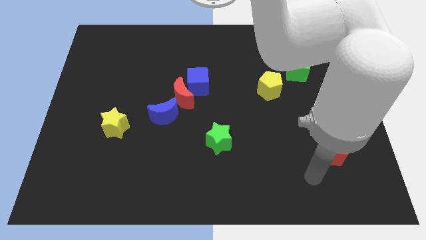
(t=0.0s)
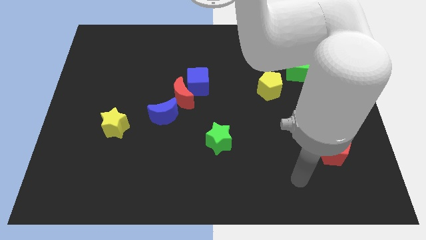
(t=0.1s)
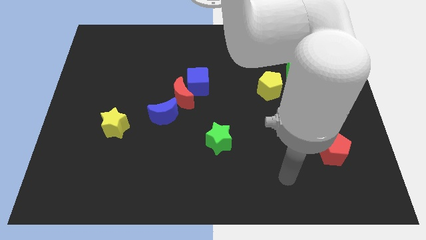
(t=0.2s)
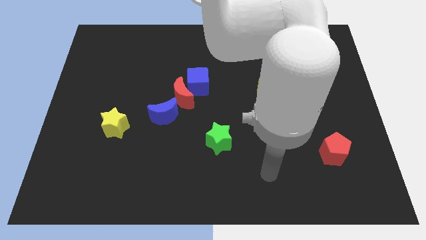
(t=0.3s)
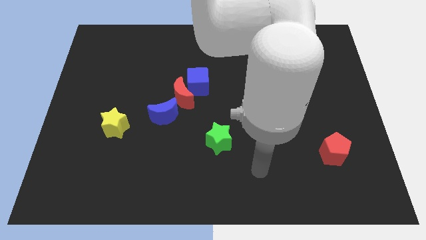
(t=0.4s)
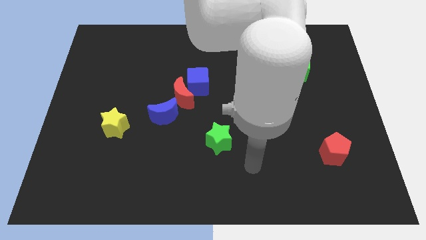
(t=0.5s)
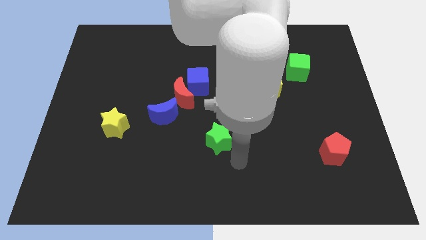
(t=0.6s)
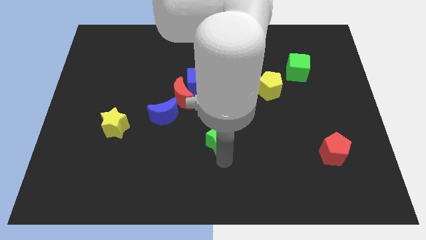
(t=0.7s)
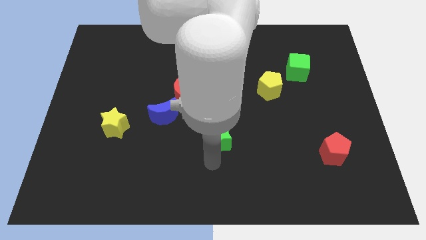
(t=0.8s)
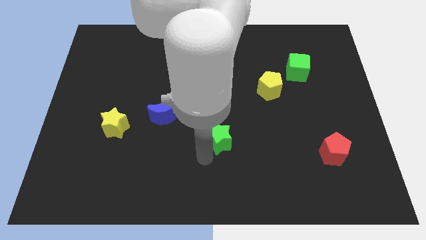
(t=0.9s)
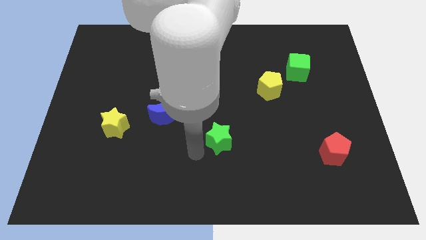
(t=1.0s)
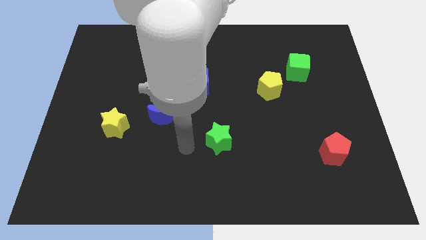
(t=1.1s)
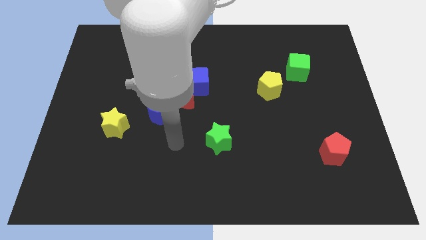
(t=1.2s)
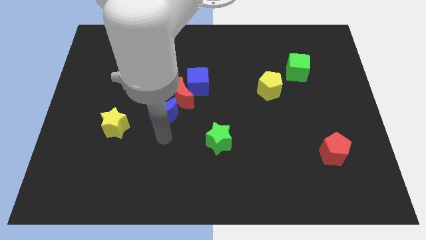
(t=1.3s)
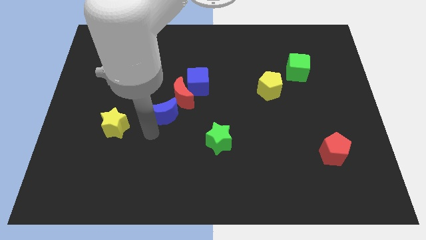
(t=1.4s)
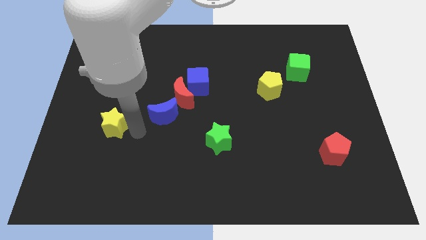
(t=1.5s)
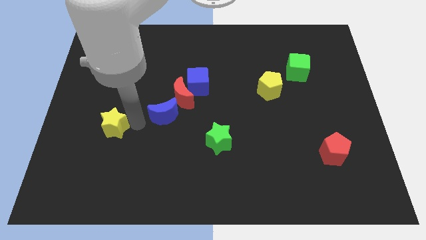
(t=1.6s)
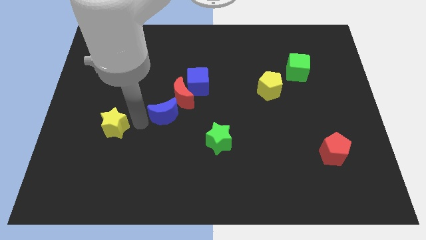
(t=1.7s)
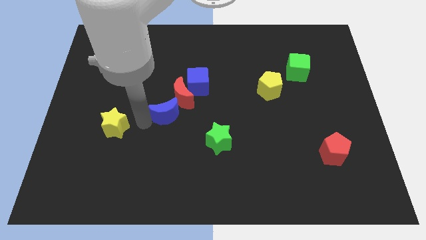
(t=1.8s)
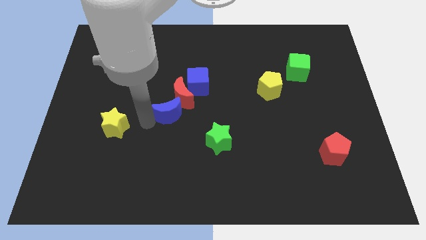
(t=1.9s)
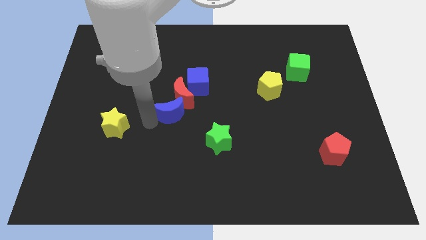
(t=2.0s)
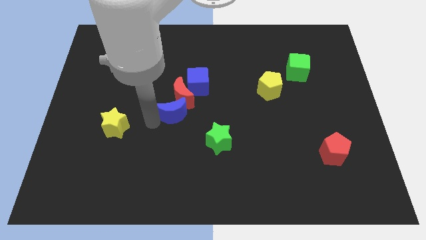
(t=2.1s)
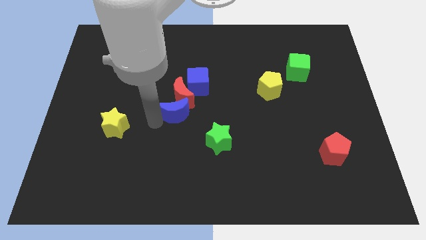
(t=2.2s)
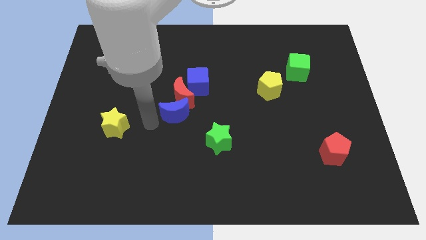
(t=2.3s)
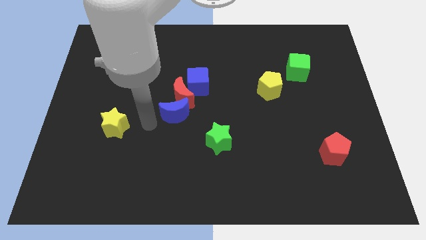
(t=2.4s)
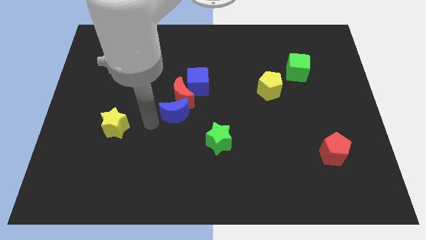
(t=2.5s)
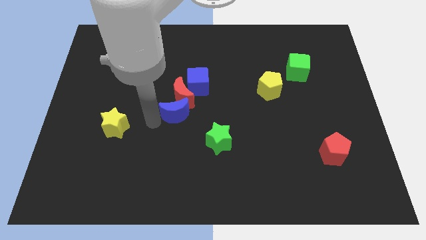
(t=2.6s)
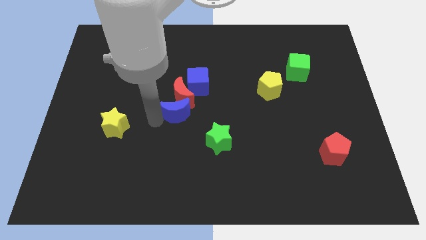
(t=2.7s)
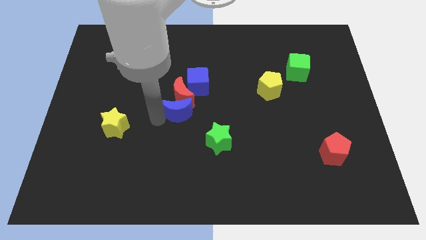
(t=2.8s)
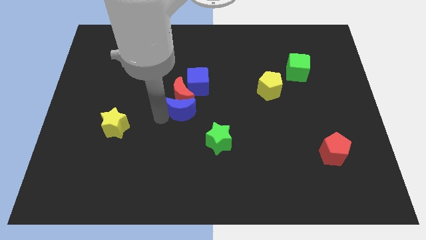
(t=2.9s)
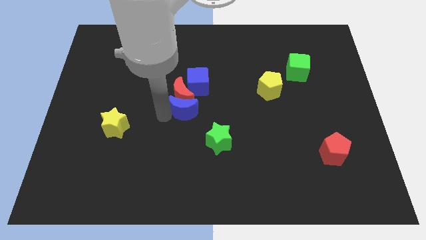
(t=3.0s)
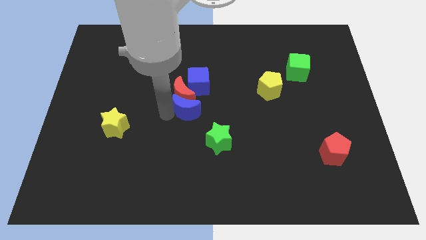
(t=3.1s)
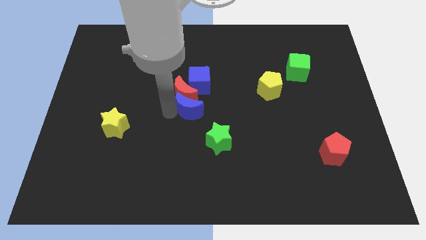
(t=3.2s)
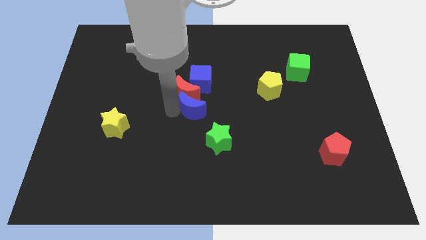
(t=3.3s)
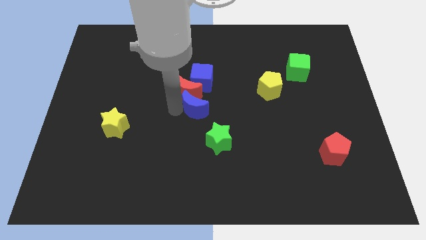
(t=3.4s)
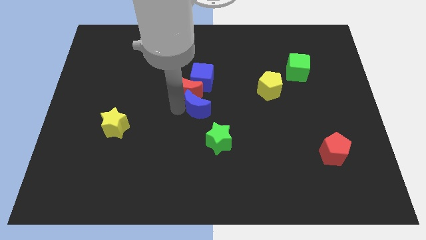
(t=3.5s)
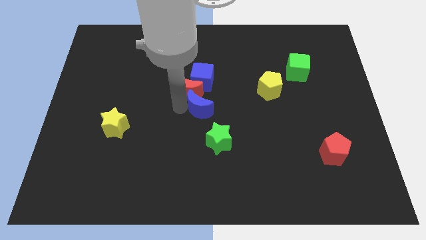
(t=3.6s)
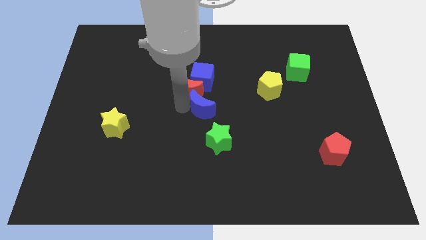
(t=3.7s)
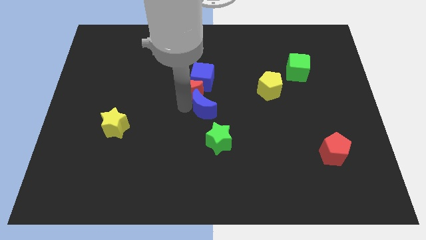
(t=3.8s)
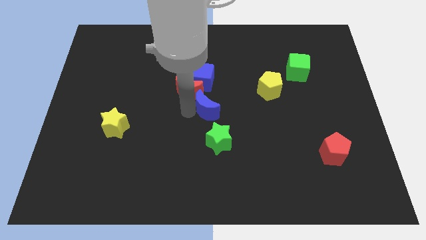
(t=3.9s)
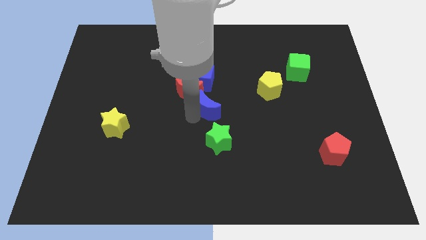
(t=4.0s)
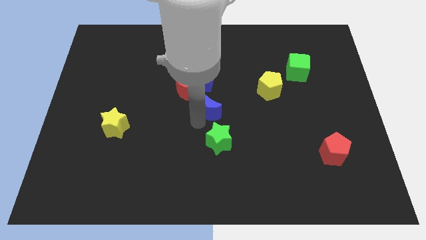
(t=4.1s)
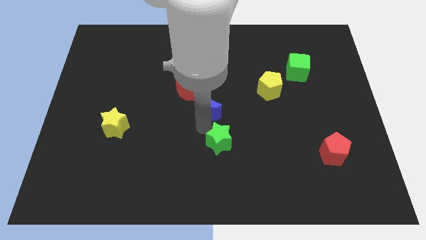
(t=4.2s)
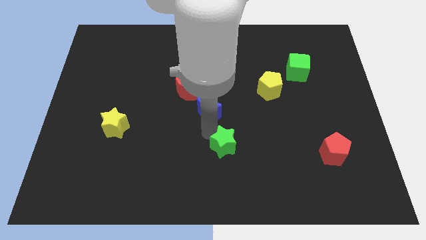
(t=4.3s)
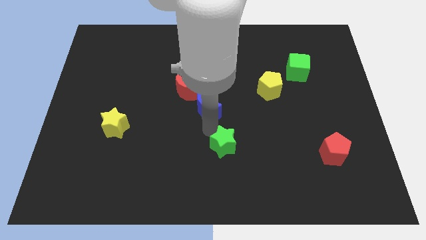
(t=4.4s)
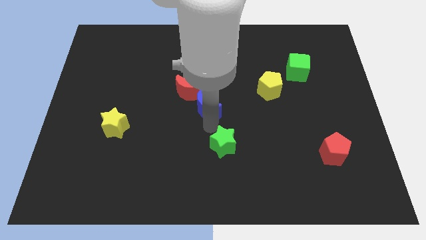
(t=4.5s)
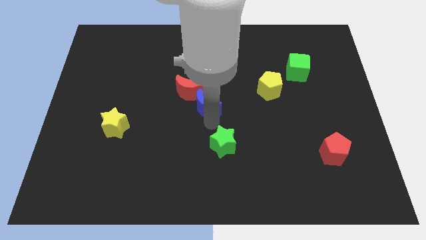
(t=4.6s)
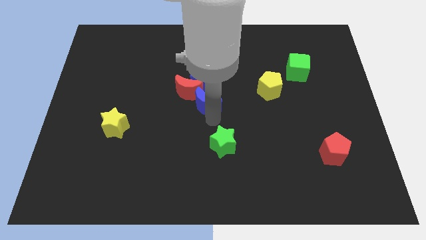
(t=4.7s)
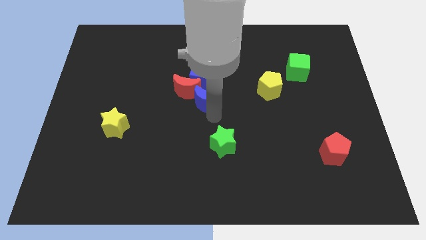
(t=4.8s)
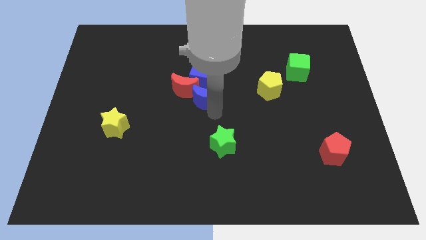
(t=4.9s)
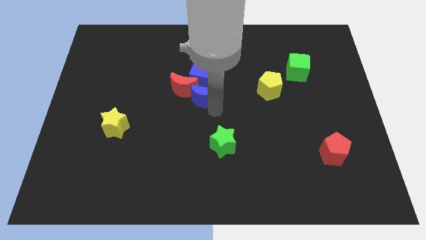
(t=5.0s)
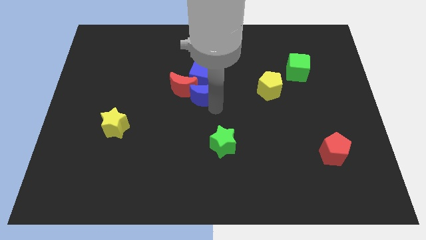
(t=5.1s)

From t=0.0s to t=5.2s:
slide the blue moon close to the blue cube

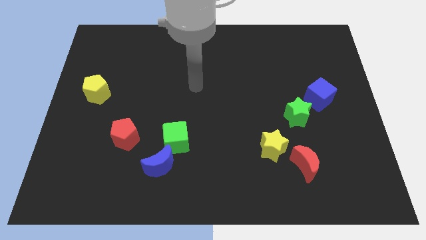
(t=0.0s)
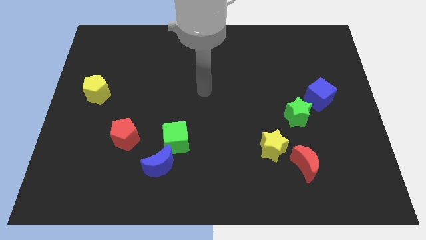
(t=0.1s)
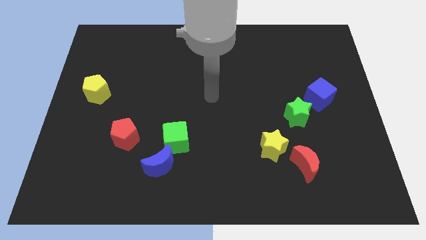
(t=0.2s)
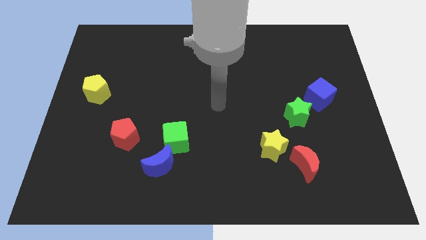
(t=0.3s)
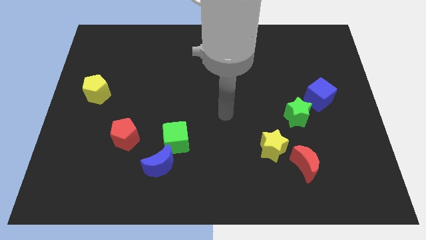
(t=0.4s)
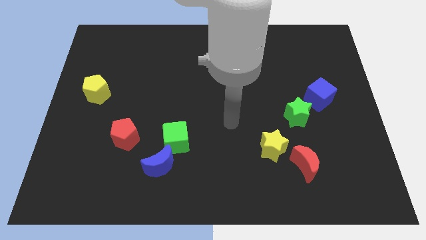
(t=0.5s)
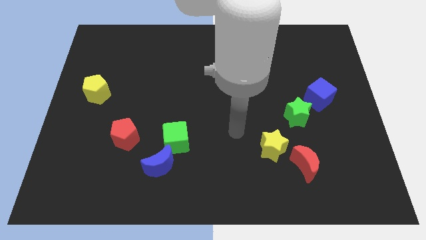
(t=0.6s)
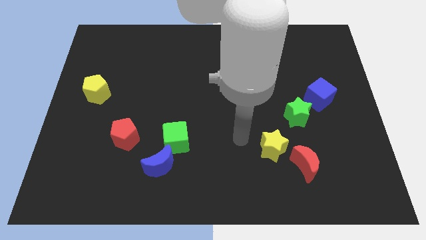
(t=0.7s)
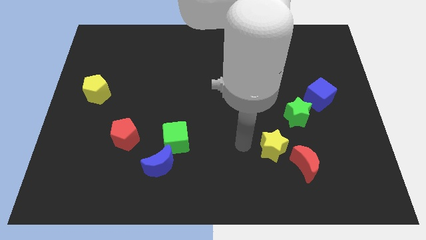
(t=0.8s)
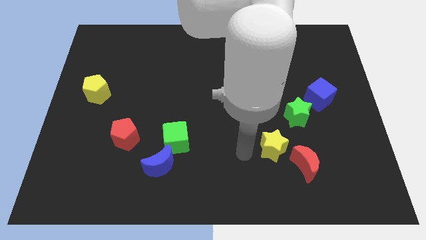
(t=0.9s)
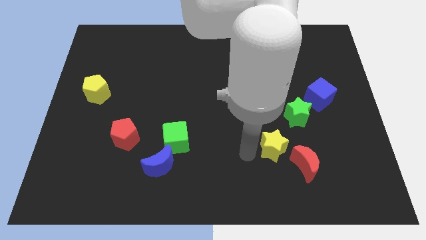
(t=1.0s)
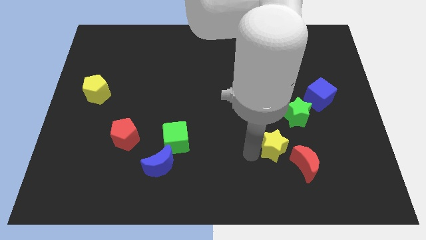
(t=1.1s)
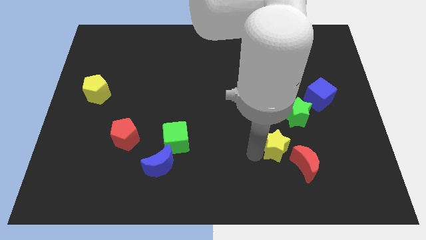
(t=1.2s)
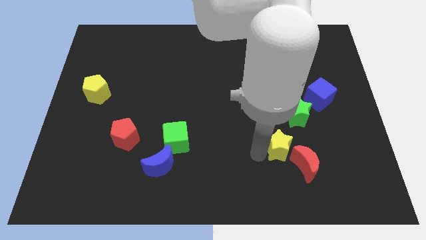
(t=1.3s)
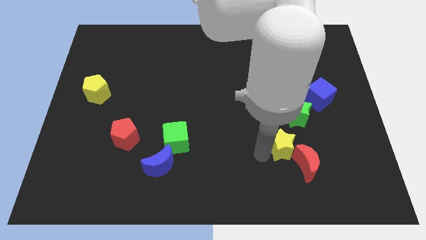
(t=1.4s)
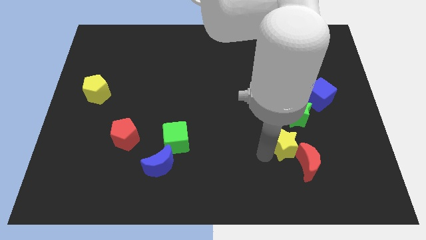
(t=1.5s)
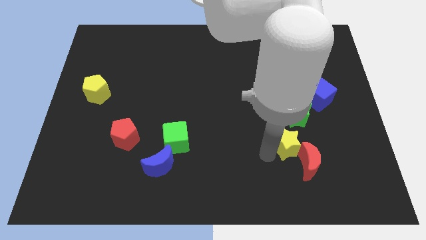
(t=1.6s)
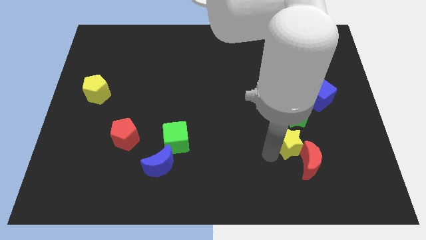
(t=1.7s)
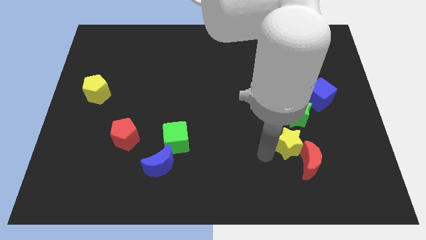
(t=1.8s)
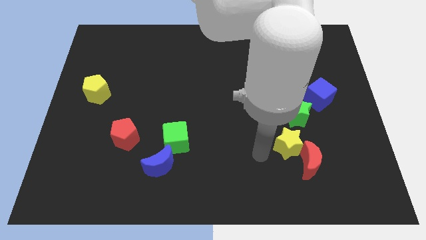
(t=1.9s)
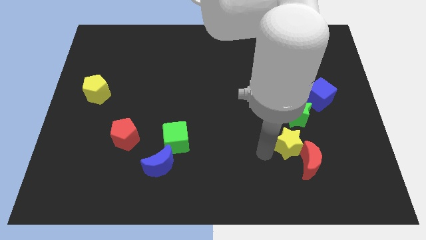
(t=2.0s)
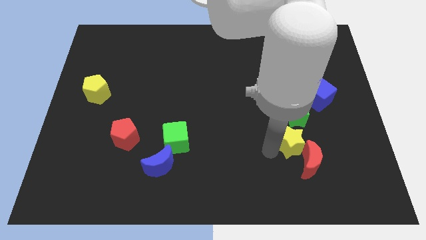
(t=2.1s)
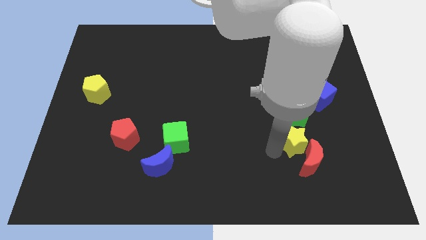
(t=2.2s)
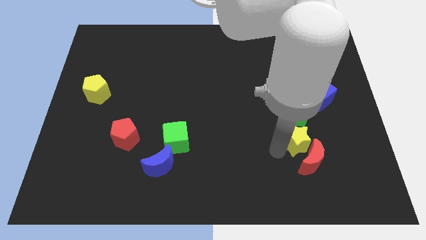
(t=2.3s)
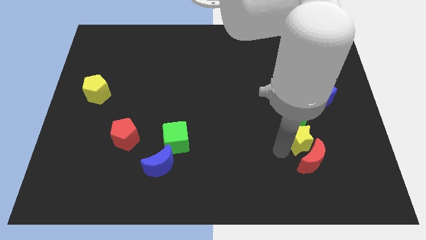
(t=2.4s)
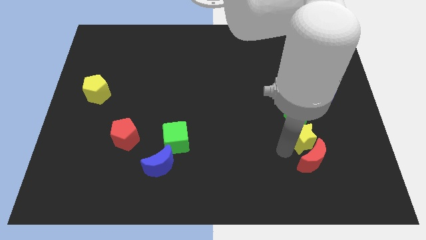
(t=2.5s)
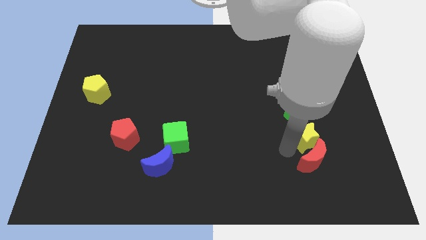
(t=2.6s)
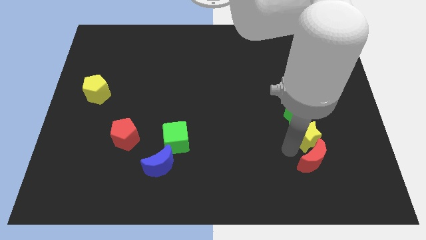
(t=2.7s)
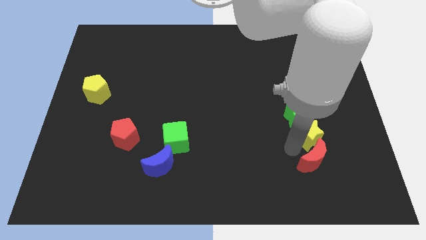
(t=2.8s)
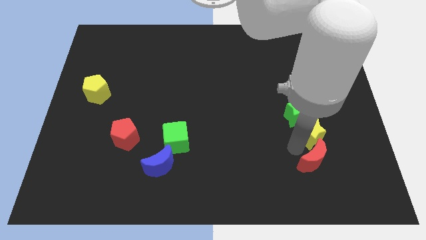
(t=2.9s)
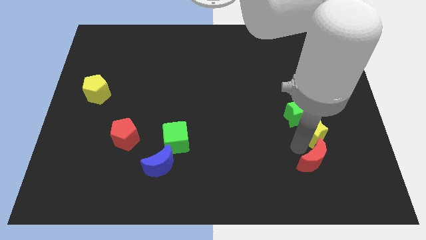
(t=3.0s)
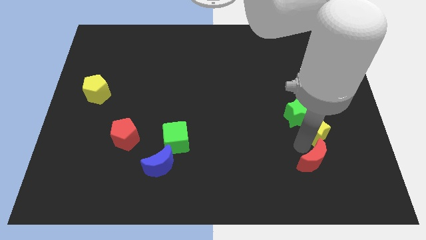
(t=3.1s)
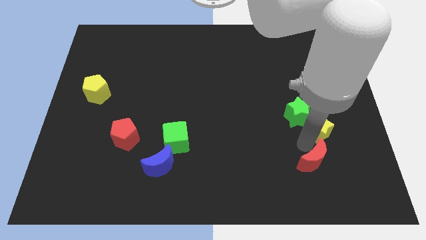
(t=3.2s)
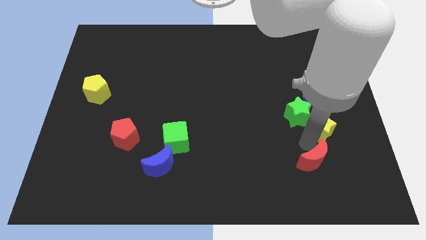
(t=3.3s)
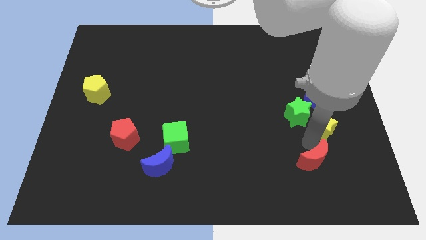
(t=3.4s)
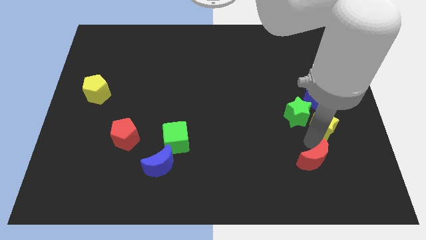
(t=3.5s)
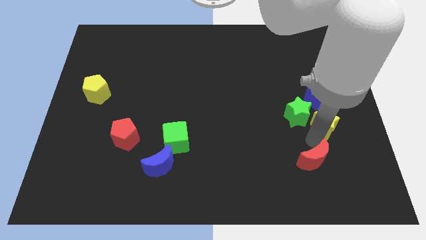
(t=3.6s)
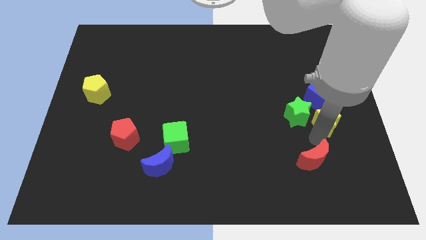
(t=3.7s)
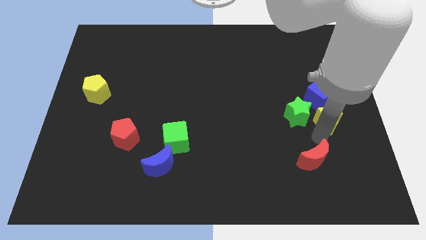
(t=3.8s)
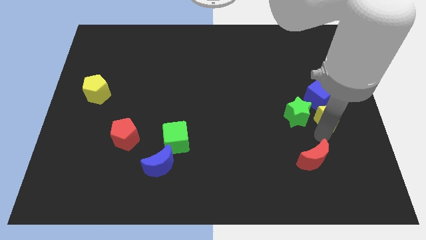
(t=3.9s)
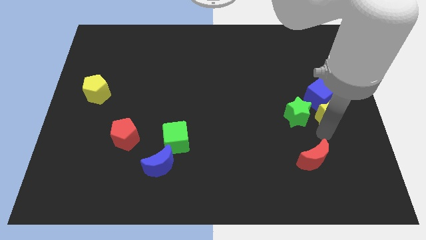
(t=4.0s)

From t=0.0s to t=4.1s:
move the yellow star towards the blue cube
